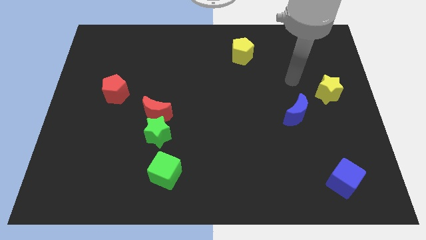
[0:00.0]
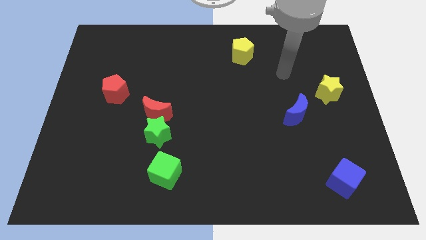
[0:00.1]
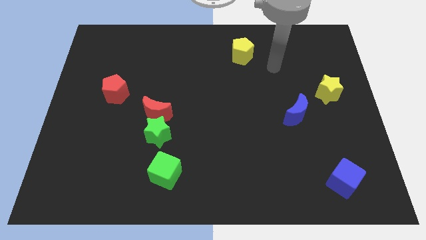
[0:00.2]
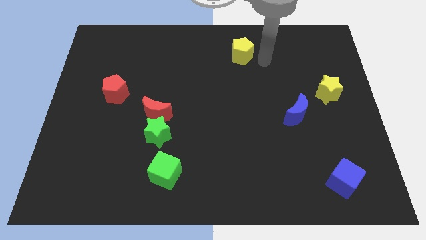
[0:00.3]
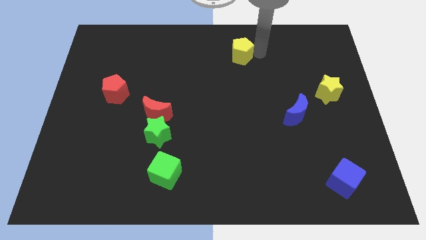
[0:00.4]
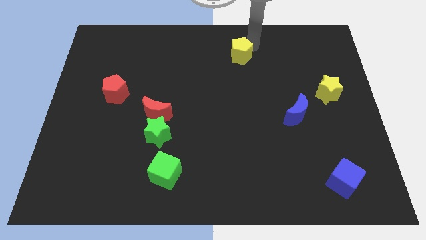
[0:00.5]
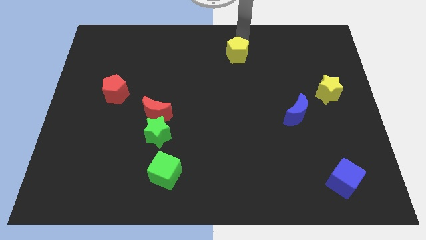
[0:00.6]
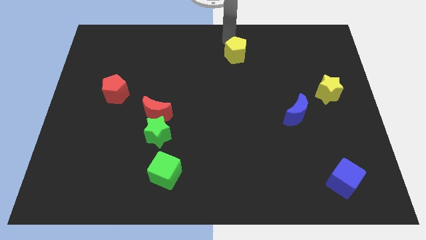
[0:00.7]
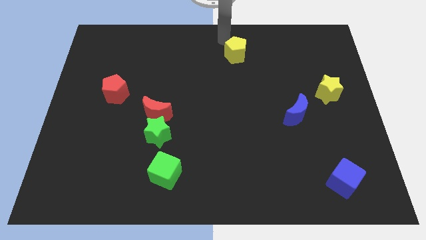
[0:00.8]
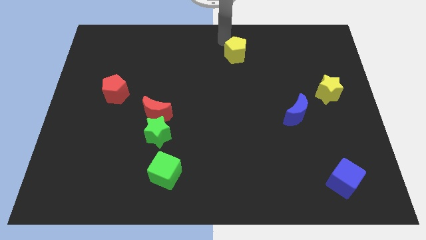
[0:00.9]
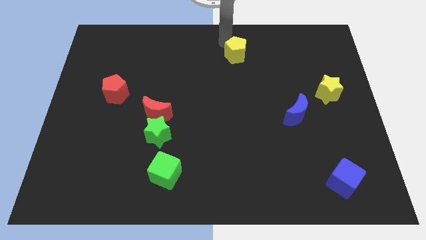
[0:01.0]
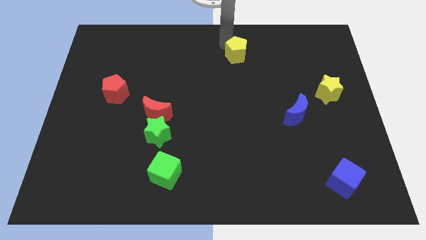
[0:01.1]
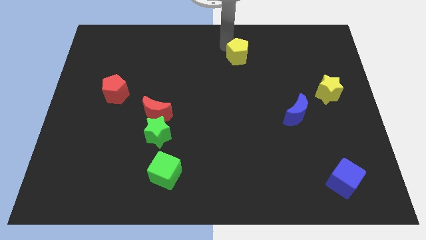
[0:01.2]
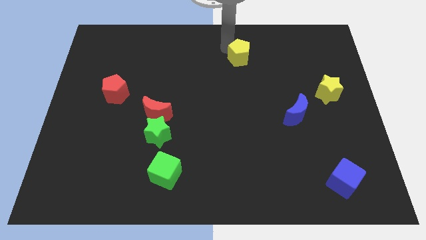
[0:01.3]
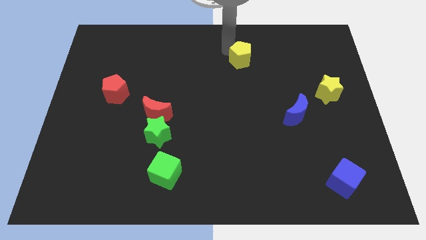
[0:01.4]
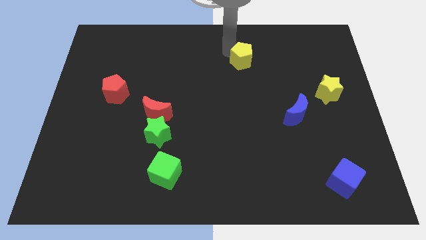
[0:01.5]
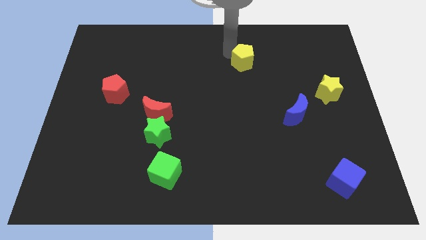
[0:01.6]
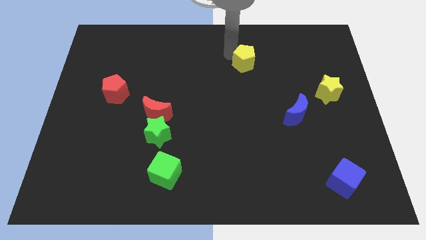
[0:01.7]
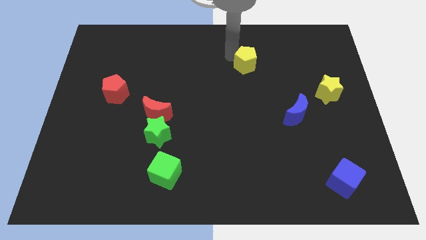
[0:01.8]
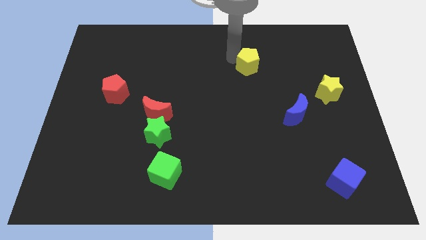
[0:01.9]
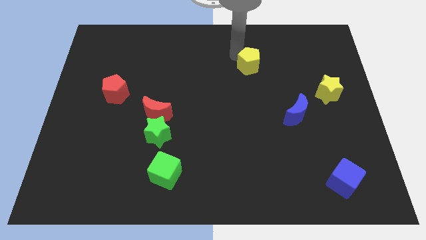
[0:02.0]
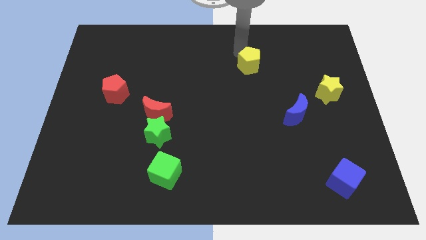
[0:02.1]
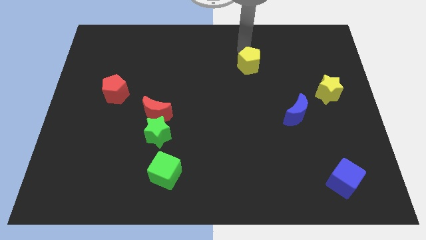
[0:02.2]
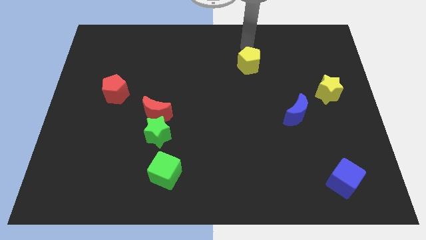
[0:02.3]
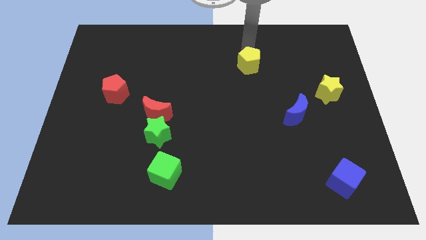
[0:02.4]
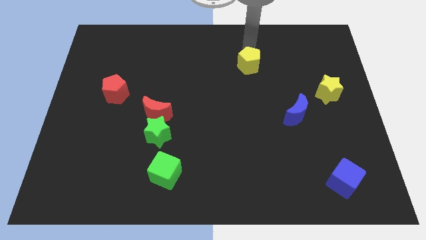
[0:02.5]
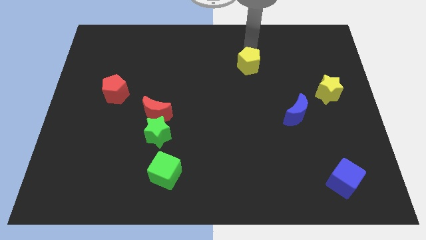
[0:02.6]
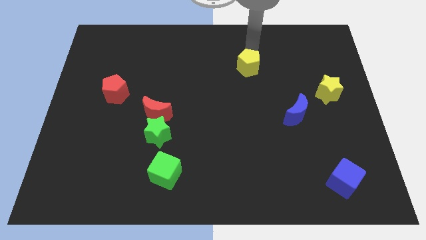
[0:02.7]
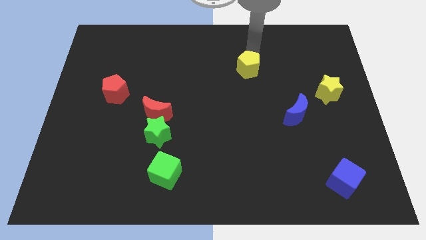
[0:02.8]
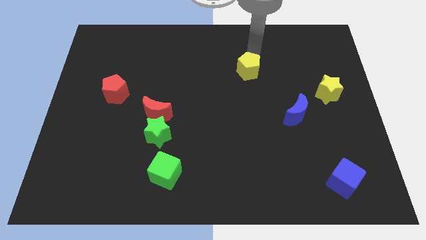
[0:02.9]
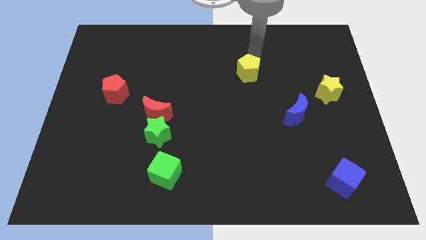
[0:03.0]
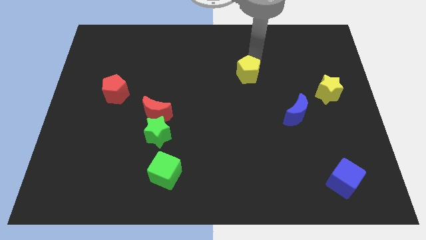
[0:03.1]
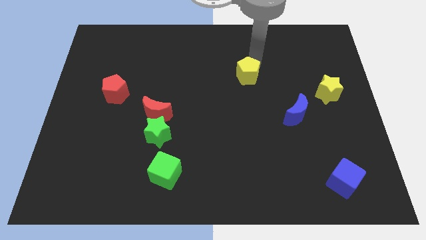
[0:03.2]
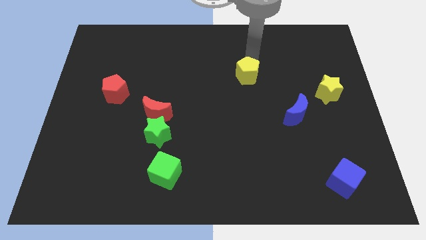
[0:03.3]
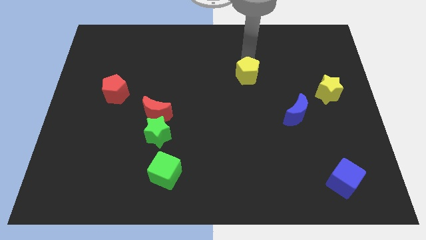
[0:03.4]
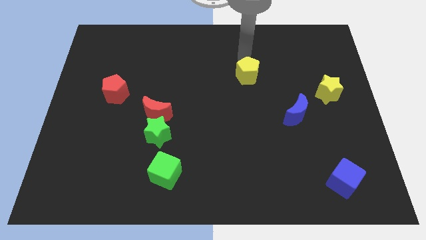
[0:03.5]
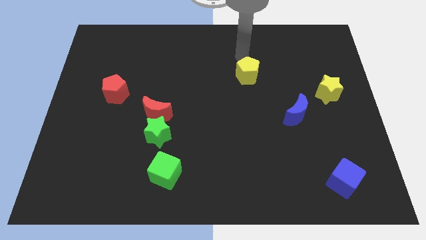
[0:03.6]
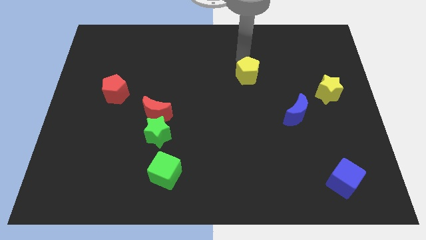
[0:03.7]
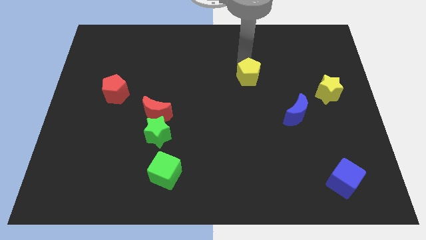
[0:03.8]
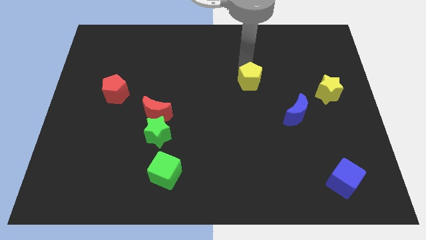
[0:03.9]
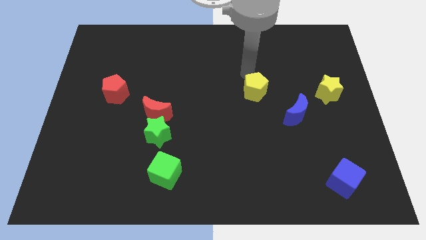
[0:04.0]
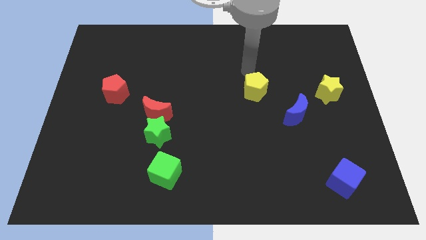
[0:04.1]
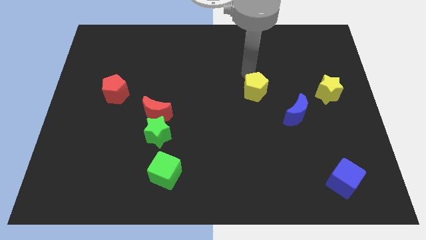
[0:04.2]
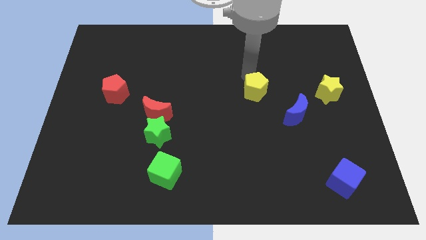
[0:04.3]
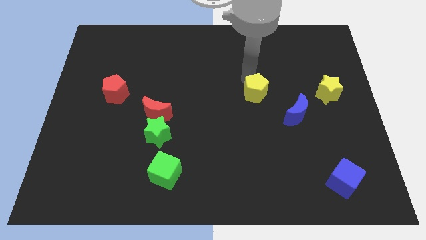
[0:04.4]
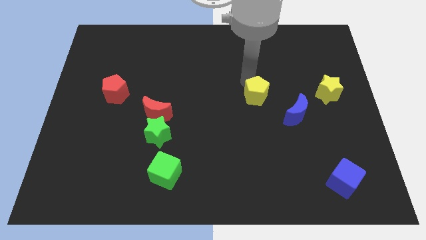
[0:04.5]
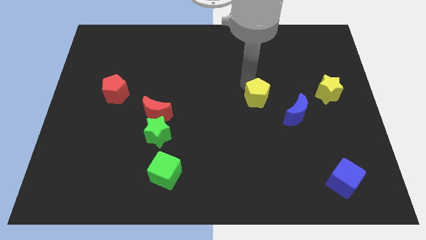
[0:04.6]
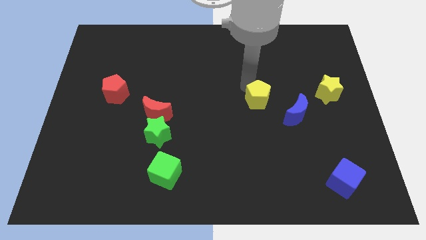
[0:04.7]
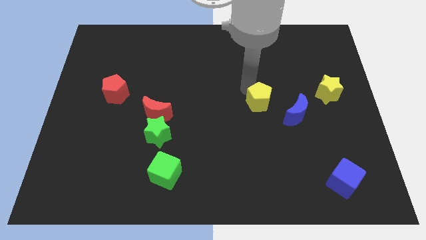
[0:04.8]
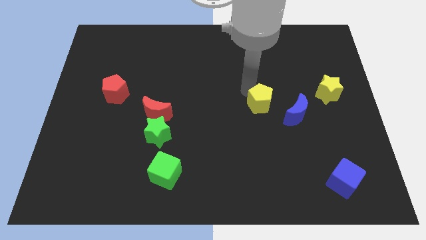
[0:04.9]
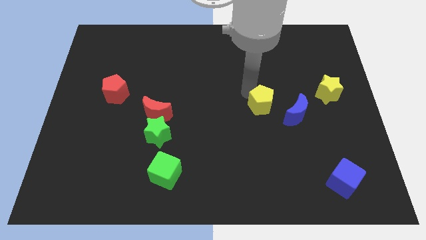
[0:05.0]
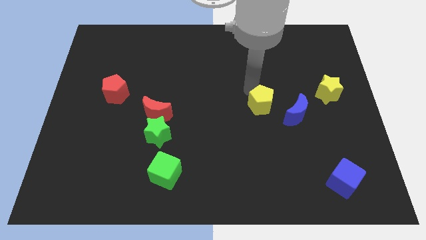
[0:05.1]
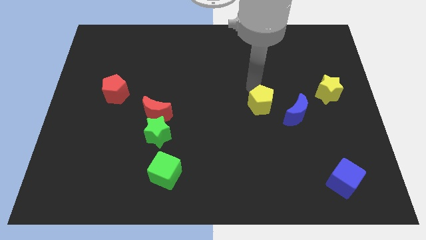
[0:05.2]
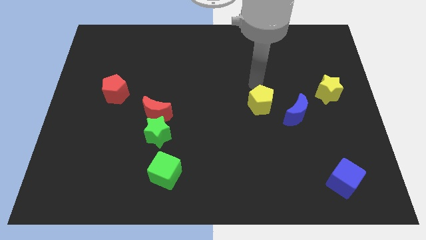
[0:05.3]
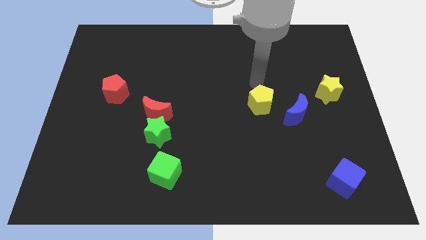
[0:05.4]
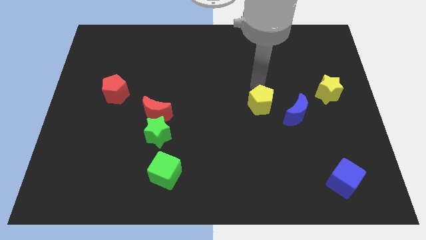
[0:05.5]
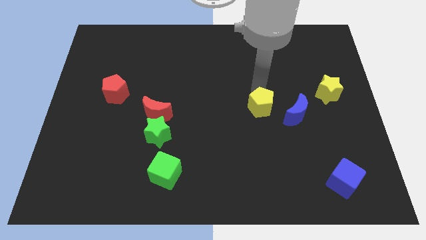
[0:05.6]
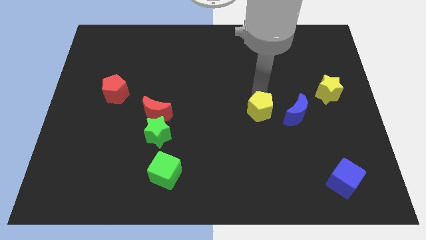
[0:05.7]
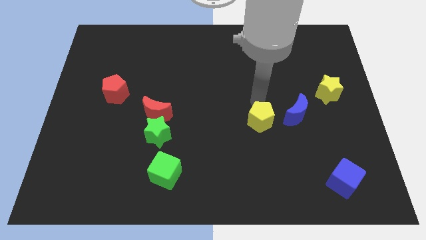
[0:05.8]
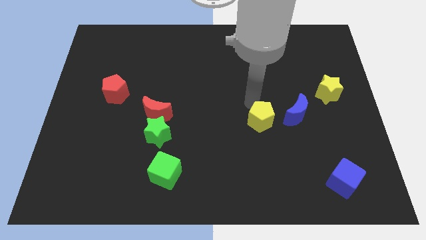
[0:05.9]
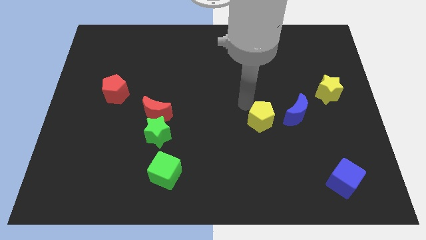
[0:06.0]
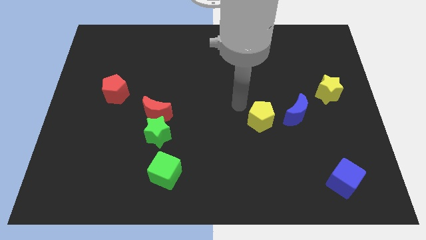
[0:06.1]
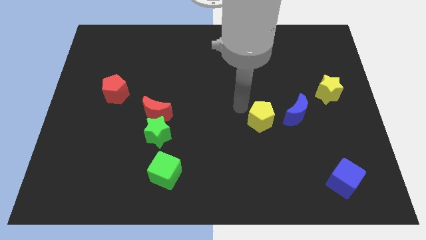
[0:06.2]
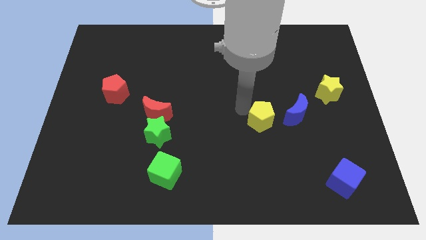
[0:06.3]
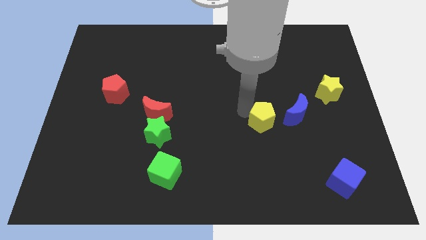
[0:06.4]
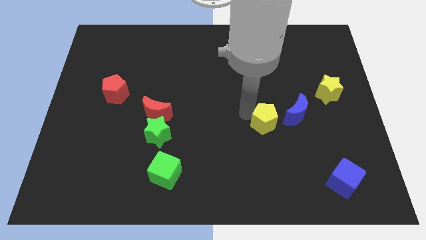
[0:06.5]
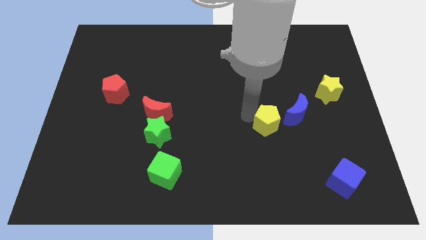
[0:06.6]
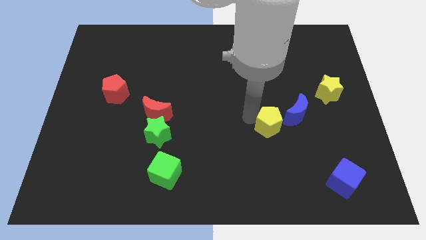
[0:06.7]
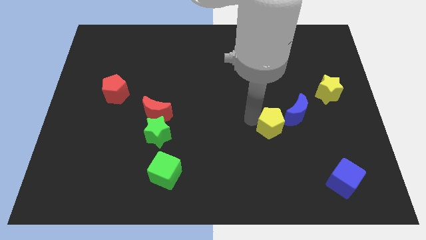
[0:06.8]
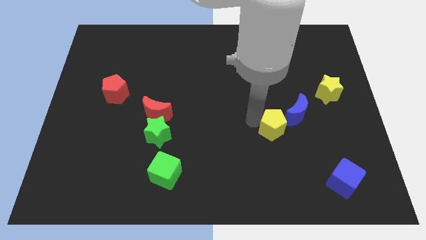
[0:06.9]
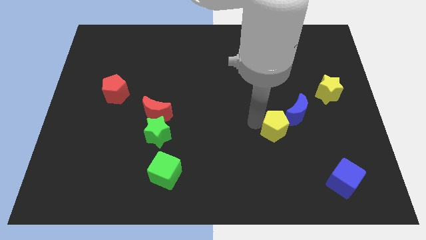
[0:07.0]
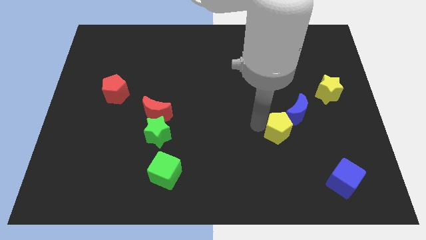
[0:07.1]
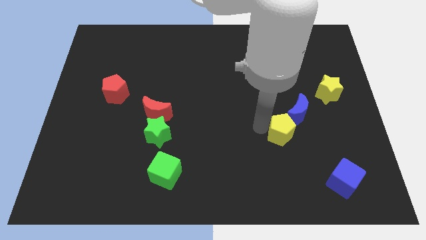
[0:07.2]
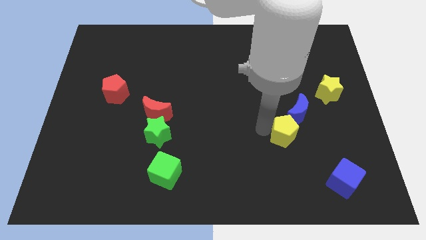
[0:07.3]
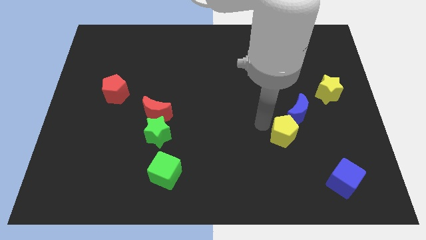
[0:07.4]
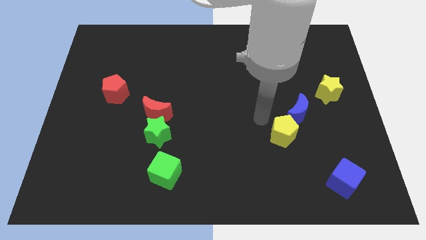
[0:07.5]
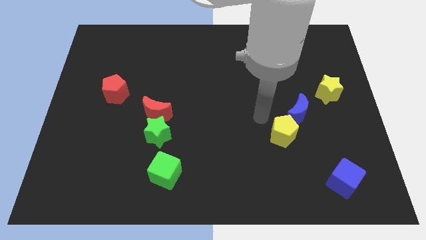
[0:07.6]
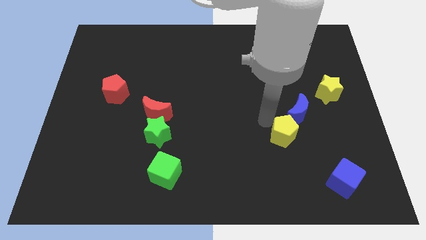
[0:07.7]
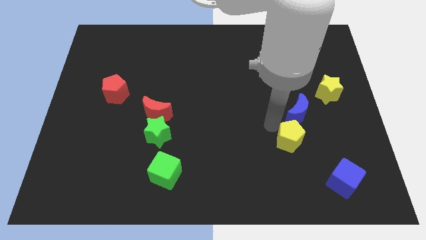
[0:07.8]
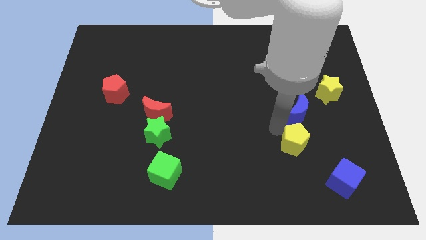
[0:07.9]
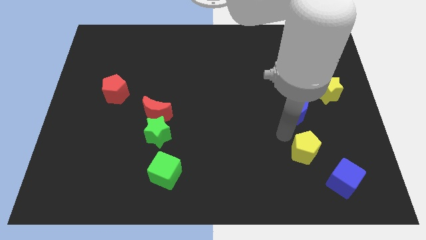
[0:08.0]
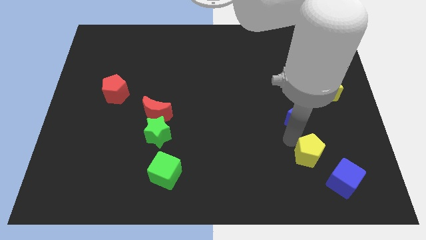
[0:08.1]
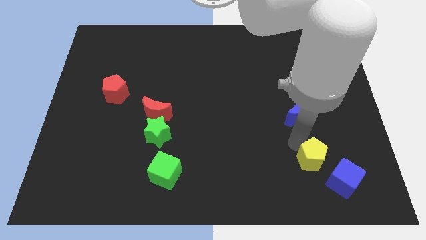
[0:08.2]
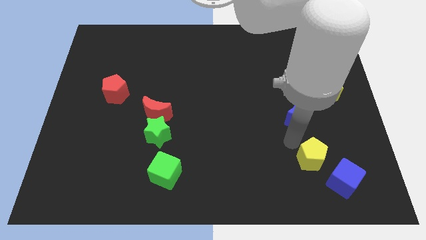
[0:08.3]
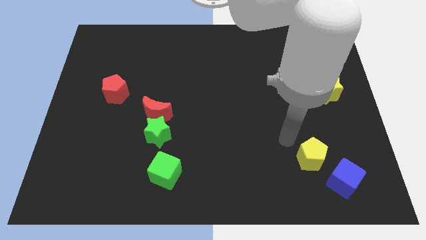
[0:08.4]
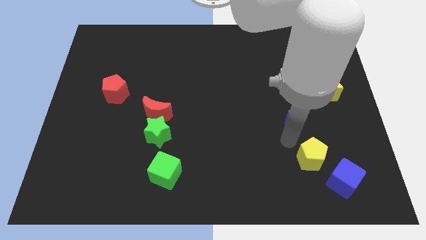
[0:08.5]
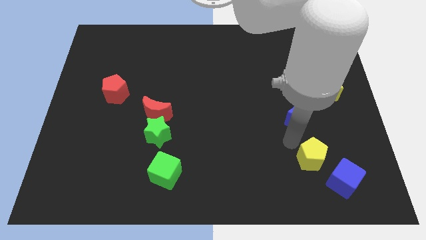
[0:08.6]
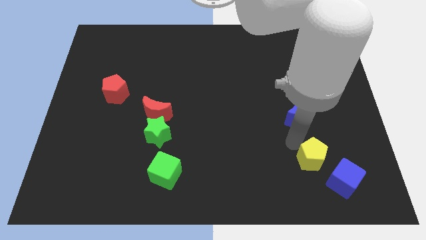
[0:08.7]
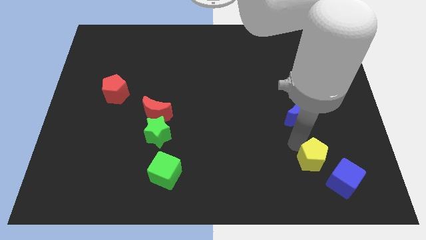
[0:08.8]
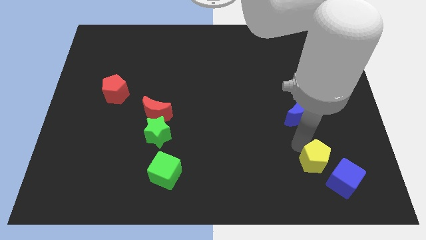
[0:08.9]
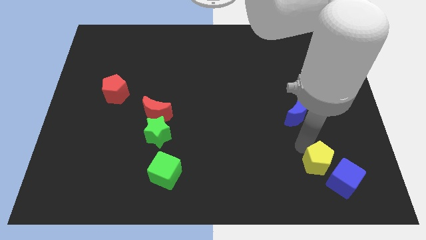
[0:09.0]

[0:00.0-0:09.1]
move the yellow pentagon towards the blue cube
